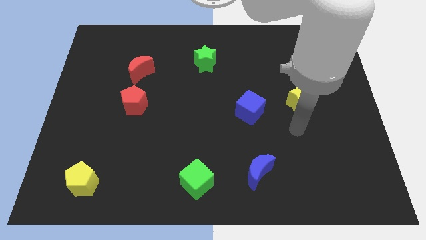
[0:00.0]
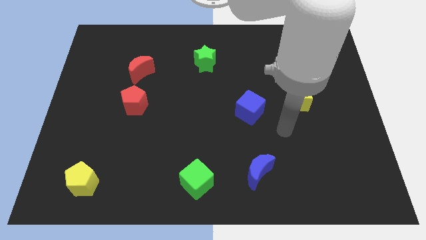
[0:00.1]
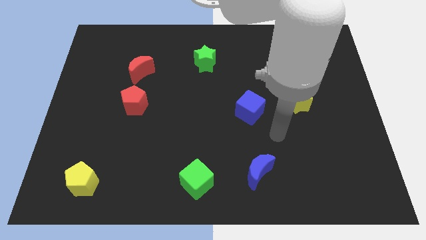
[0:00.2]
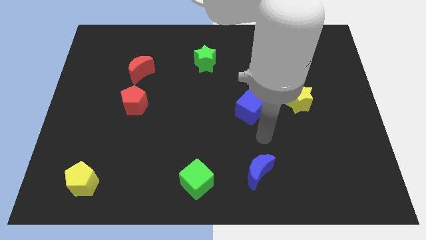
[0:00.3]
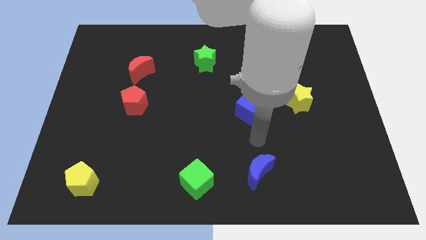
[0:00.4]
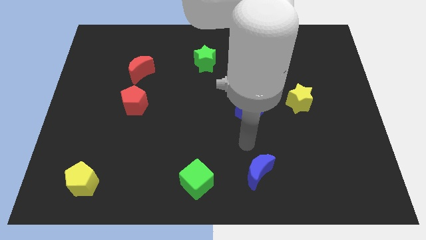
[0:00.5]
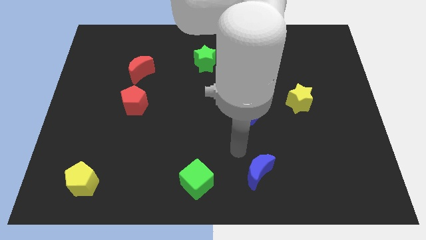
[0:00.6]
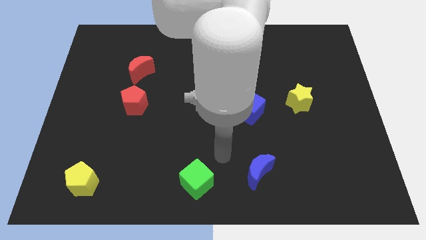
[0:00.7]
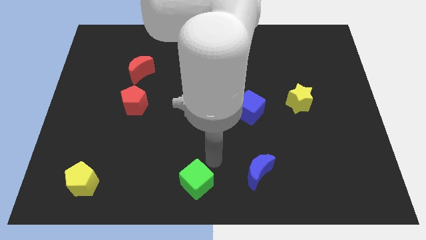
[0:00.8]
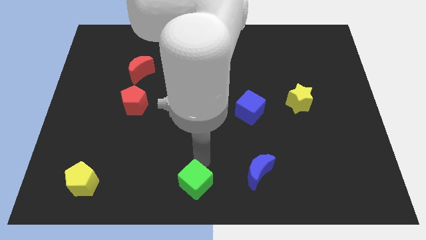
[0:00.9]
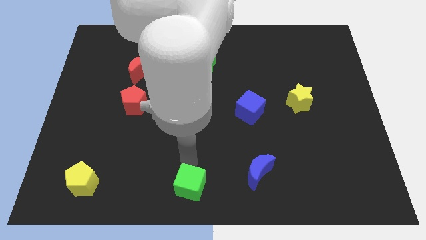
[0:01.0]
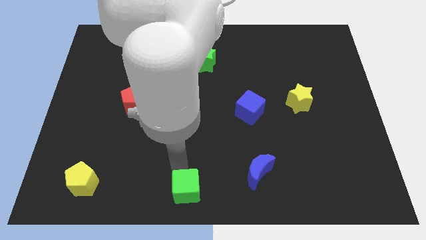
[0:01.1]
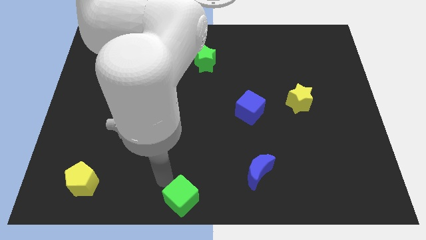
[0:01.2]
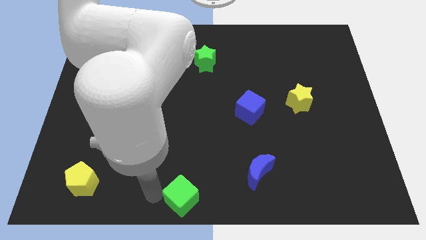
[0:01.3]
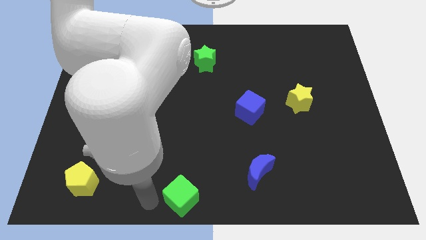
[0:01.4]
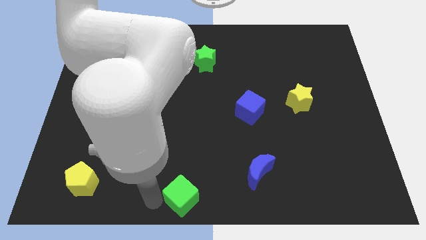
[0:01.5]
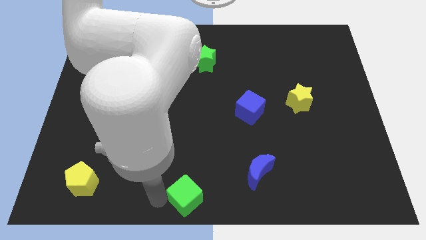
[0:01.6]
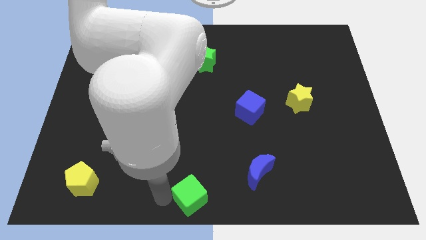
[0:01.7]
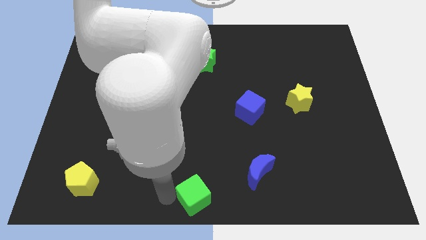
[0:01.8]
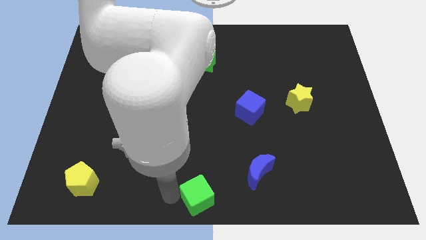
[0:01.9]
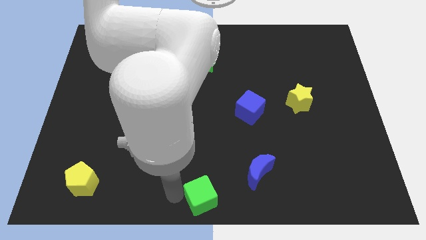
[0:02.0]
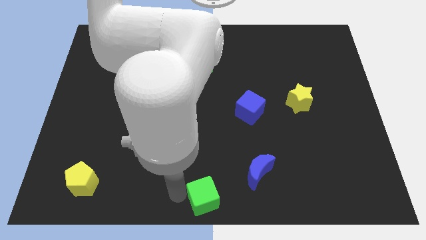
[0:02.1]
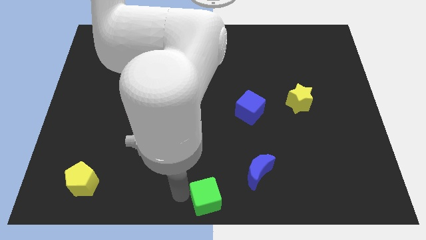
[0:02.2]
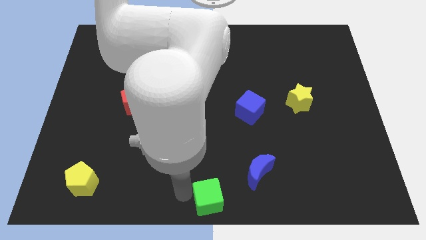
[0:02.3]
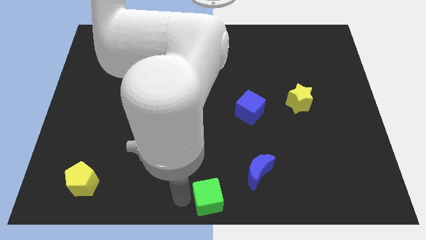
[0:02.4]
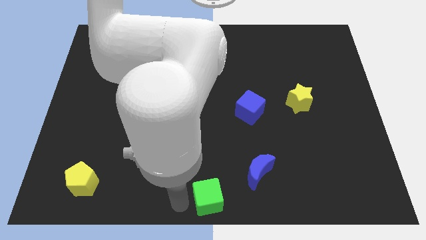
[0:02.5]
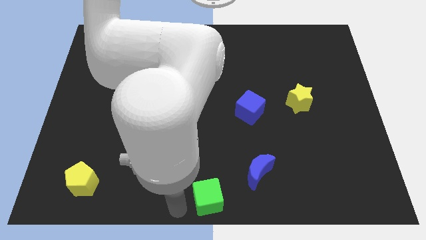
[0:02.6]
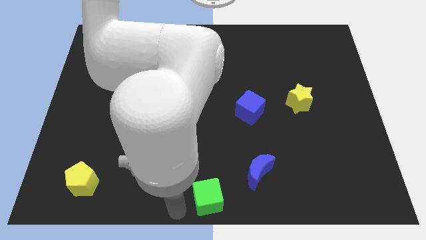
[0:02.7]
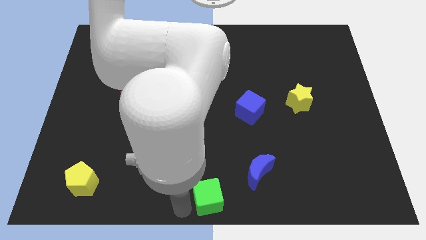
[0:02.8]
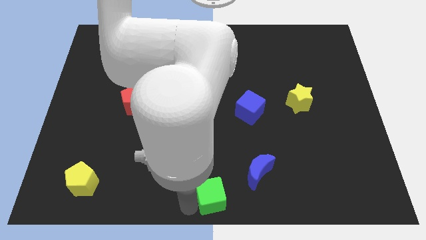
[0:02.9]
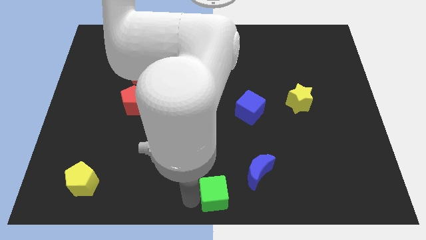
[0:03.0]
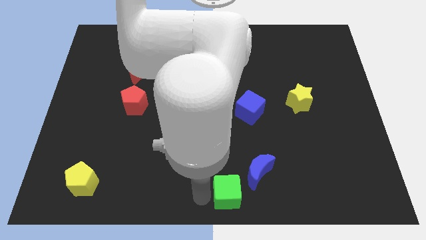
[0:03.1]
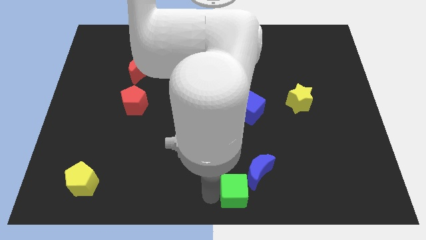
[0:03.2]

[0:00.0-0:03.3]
move the green cube to the right slightly

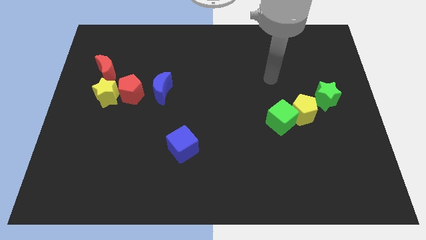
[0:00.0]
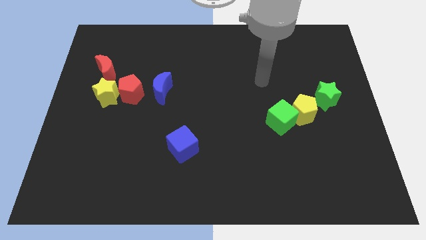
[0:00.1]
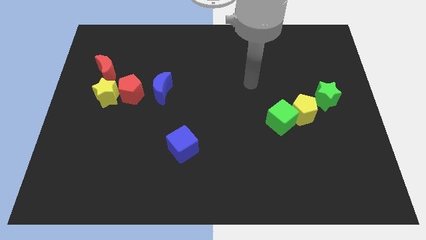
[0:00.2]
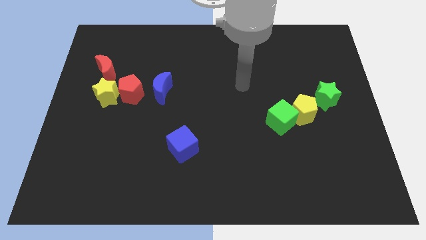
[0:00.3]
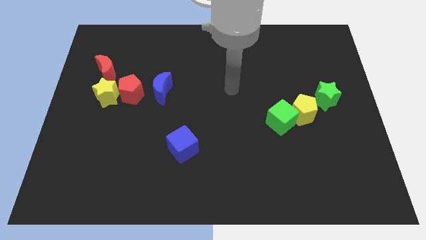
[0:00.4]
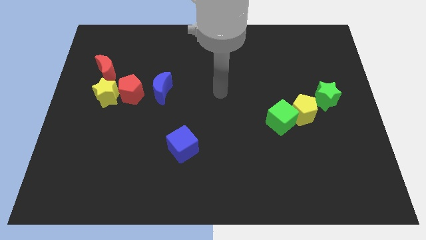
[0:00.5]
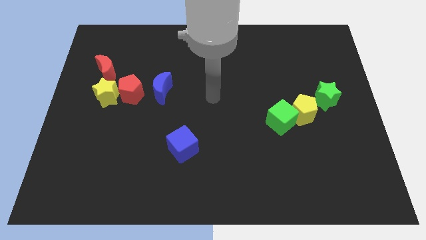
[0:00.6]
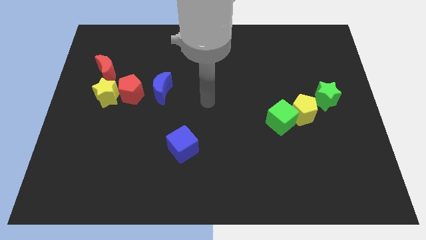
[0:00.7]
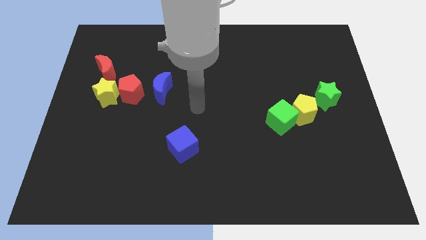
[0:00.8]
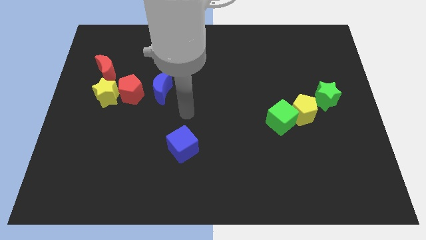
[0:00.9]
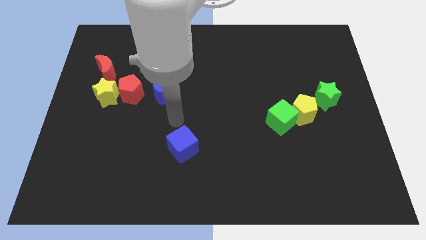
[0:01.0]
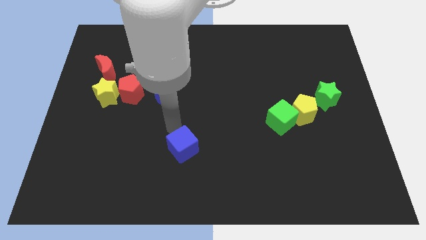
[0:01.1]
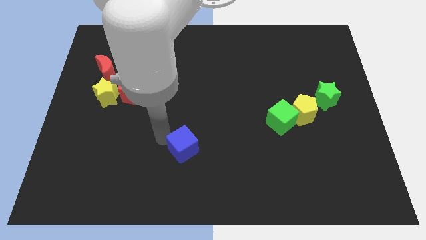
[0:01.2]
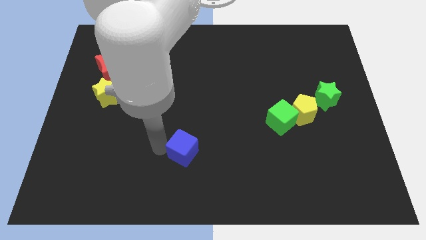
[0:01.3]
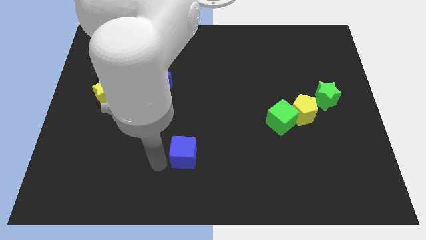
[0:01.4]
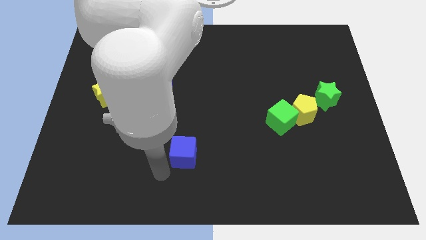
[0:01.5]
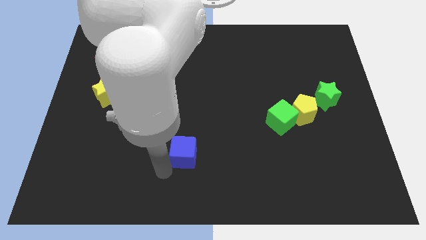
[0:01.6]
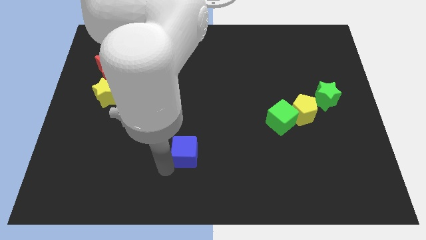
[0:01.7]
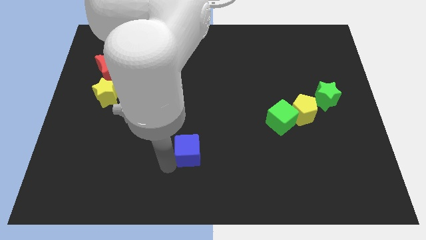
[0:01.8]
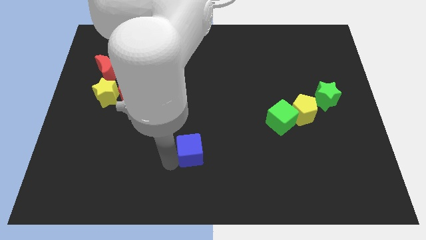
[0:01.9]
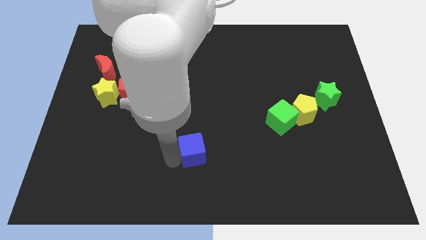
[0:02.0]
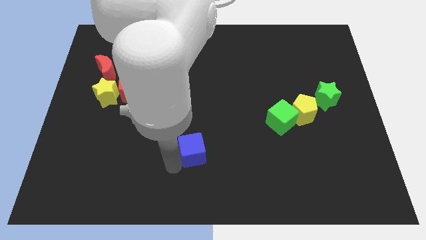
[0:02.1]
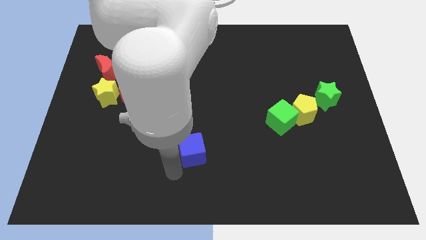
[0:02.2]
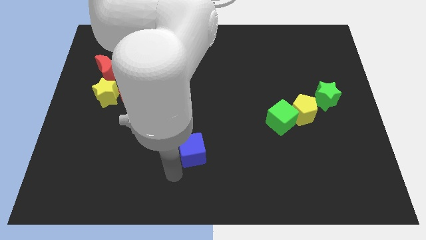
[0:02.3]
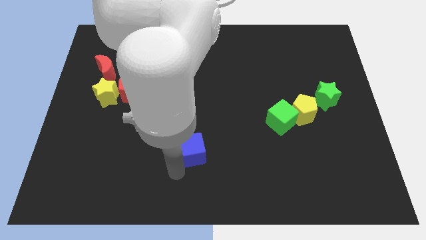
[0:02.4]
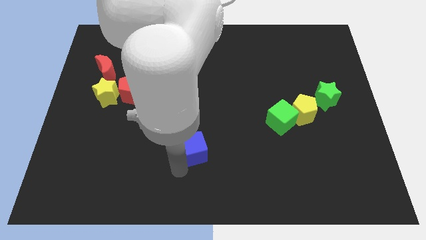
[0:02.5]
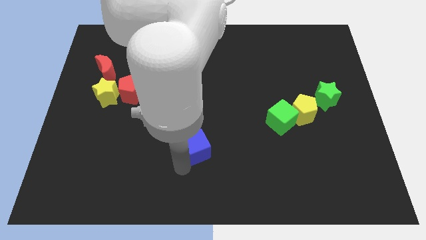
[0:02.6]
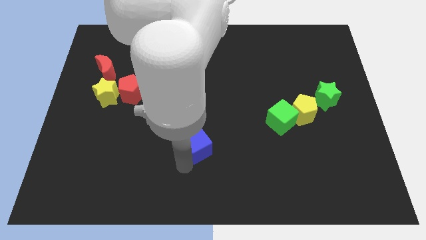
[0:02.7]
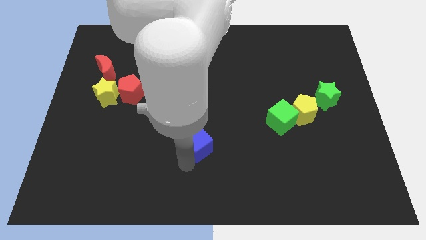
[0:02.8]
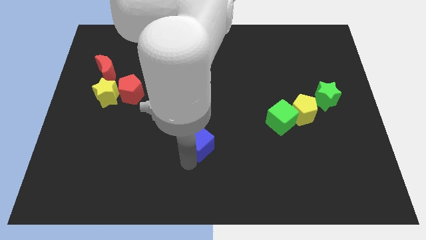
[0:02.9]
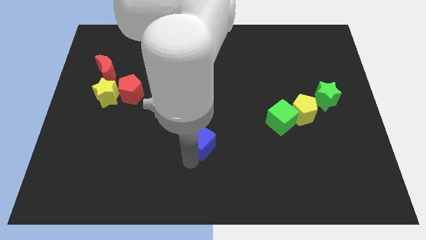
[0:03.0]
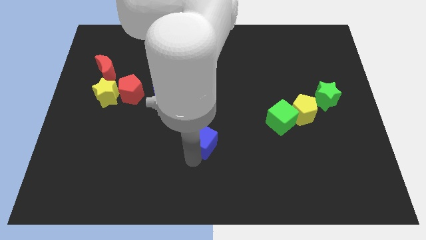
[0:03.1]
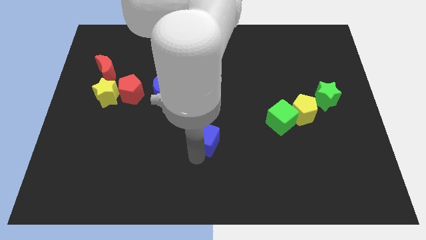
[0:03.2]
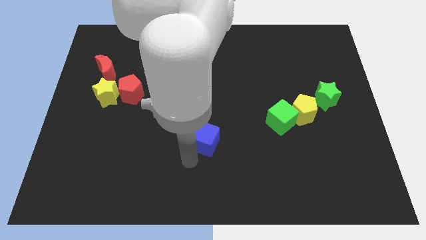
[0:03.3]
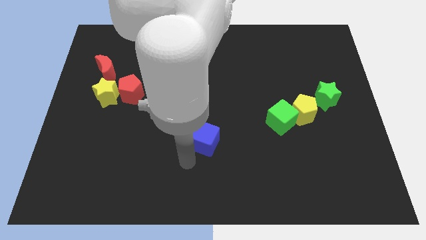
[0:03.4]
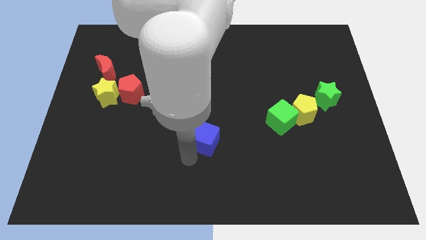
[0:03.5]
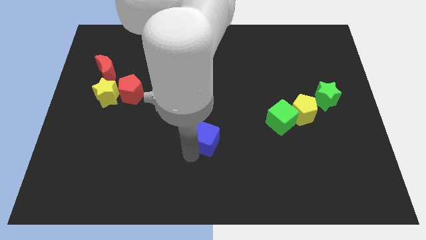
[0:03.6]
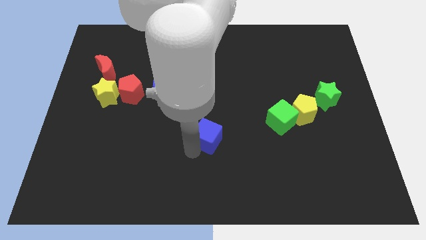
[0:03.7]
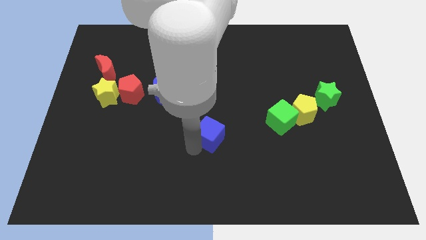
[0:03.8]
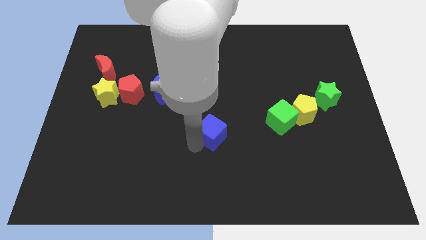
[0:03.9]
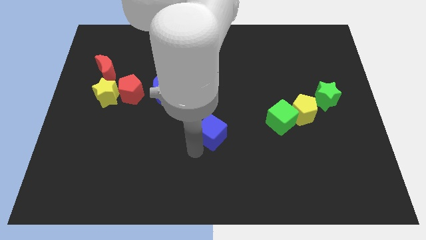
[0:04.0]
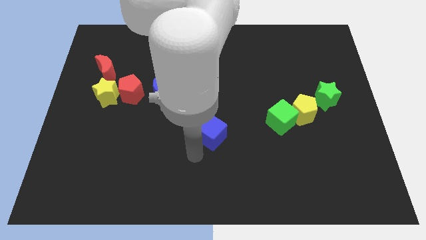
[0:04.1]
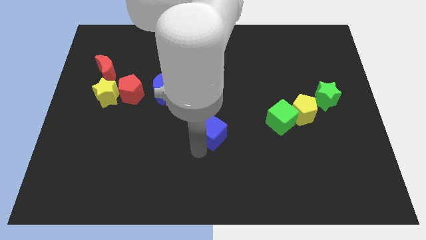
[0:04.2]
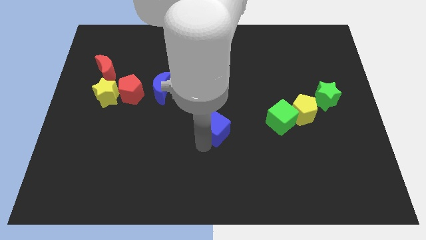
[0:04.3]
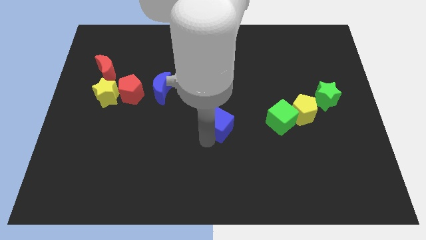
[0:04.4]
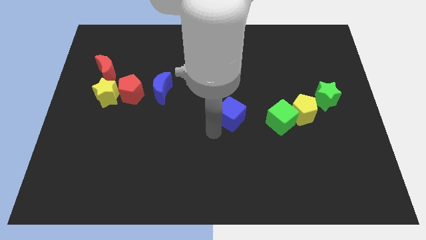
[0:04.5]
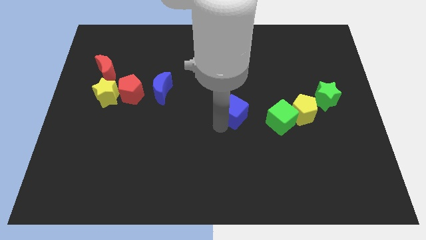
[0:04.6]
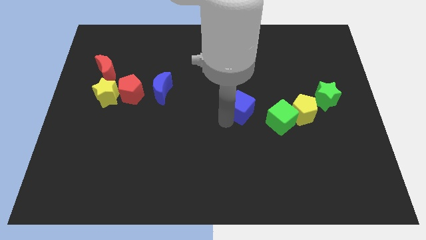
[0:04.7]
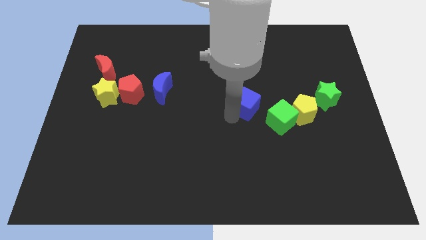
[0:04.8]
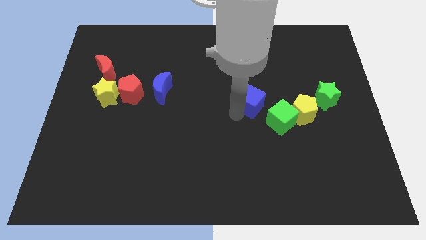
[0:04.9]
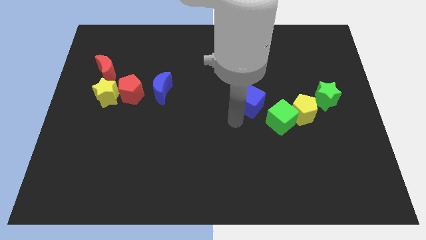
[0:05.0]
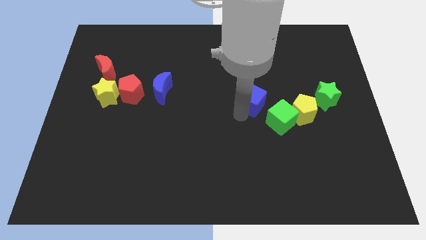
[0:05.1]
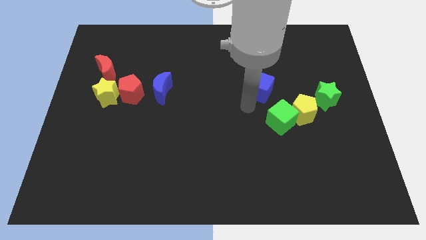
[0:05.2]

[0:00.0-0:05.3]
slide the blue cube upwards and to the right
